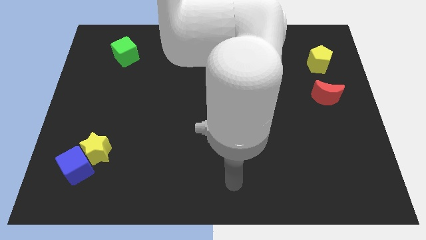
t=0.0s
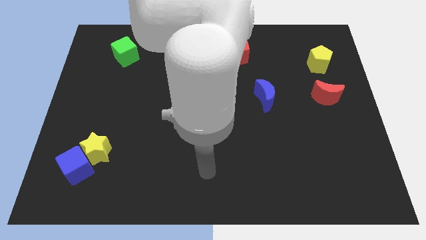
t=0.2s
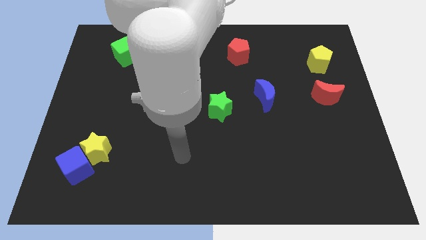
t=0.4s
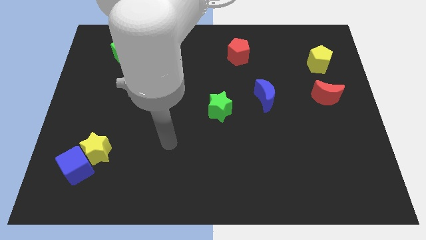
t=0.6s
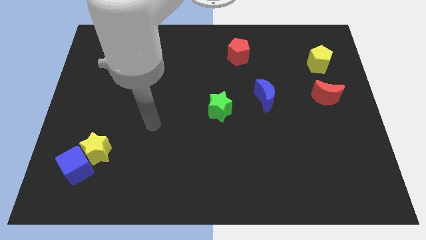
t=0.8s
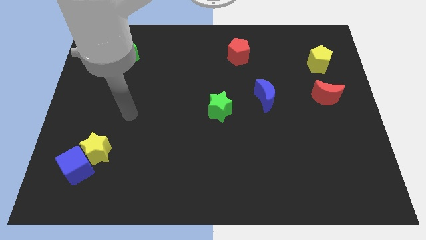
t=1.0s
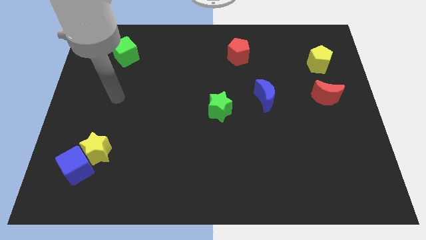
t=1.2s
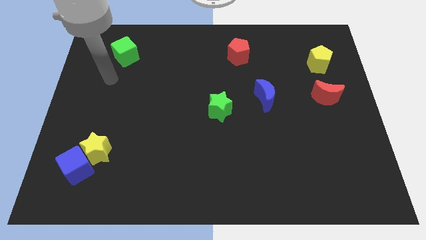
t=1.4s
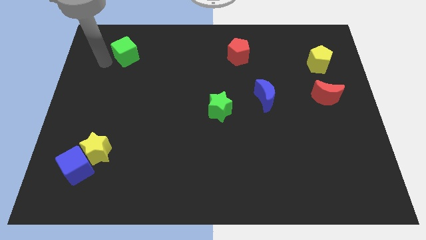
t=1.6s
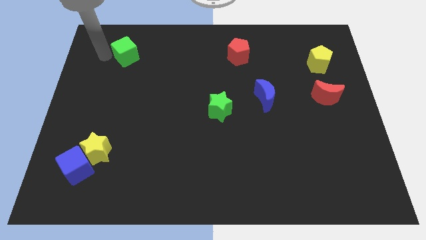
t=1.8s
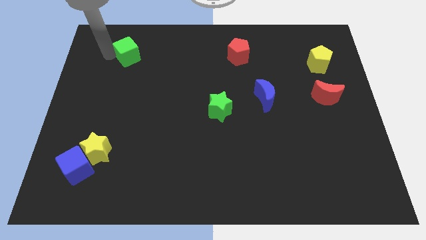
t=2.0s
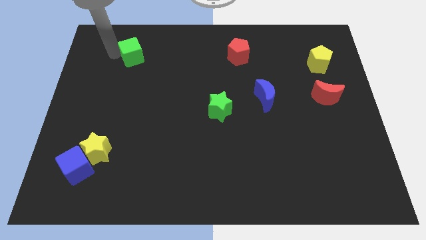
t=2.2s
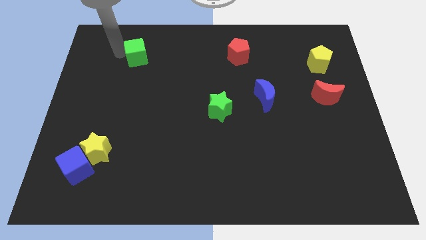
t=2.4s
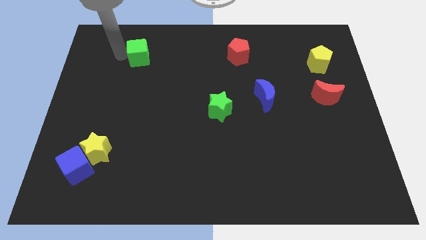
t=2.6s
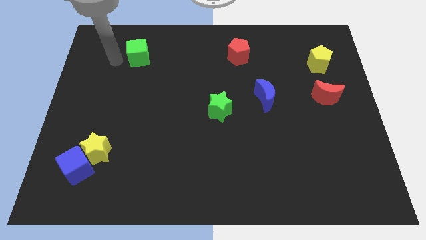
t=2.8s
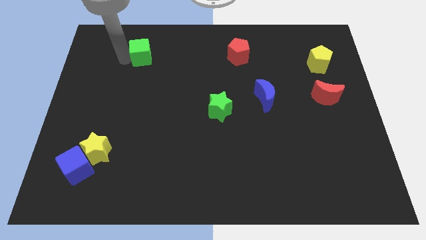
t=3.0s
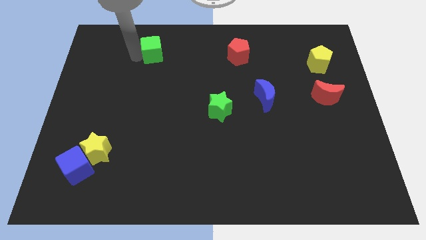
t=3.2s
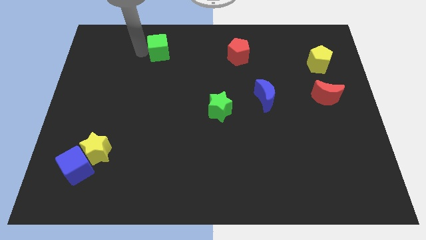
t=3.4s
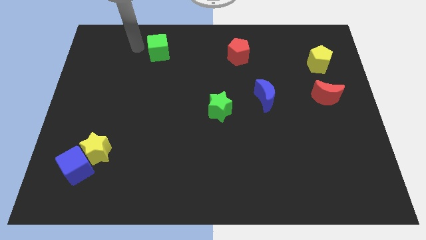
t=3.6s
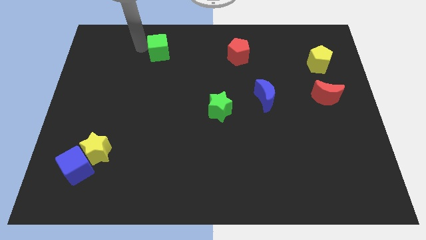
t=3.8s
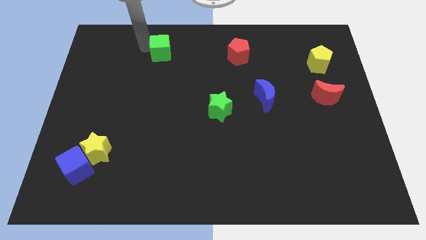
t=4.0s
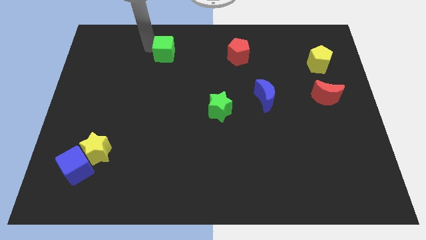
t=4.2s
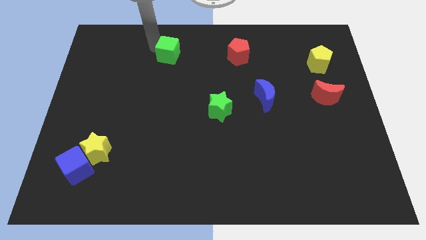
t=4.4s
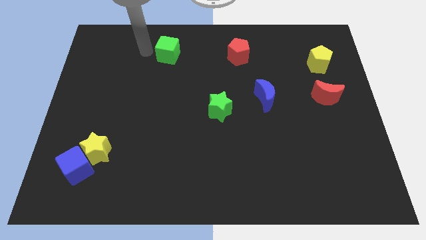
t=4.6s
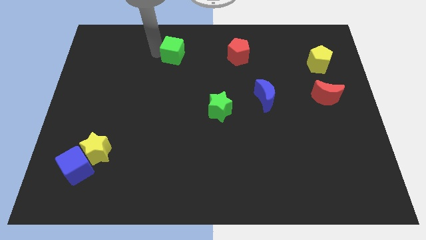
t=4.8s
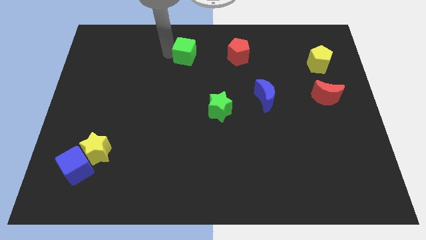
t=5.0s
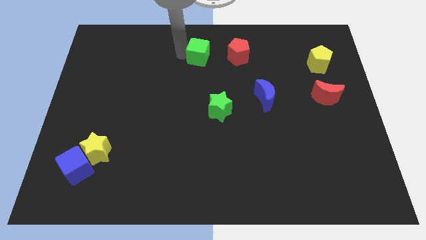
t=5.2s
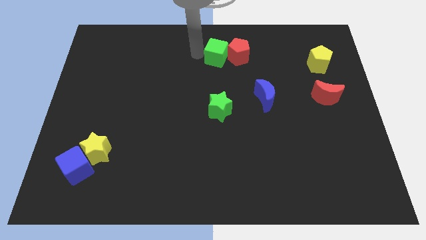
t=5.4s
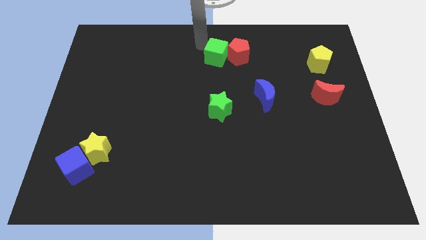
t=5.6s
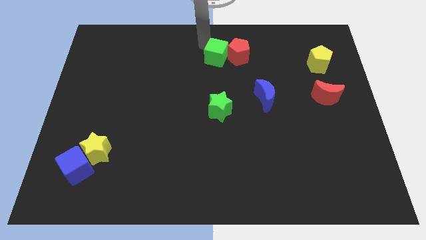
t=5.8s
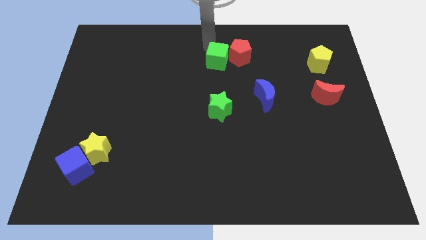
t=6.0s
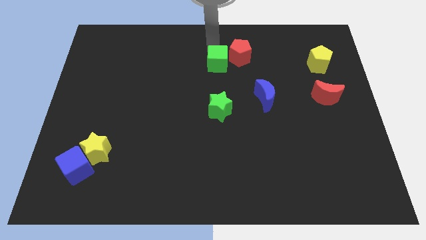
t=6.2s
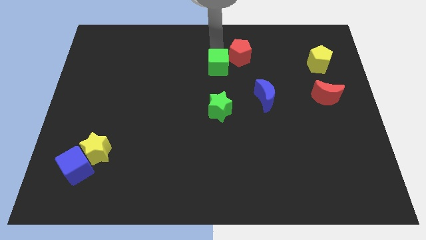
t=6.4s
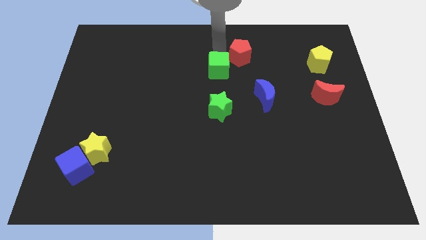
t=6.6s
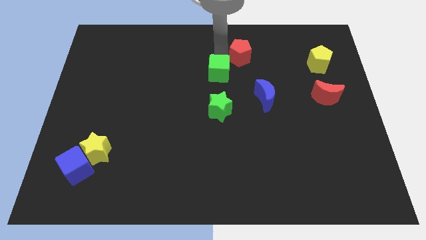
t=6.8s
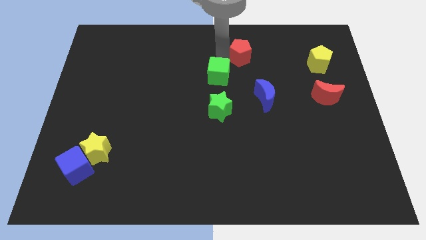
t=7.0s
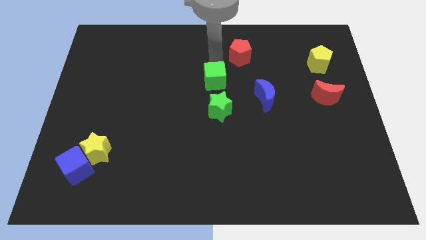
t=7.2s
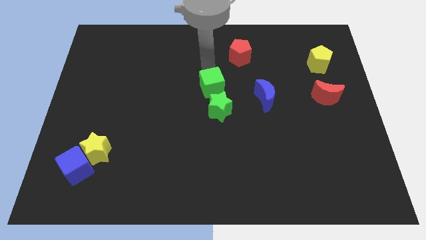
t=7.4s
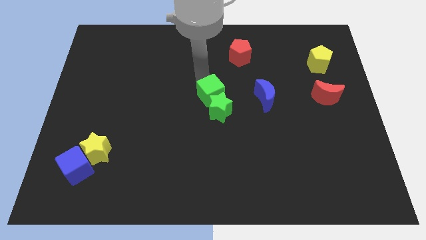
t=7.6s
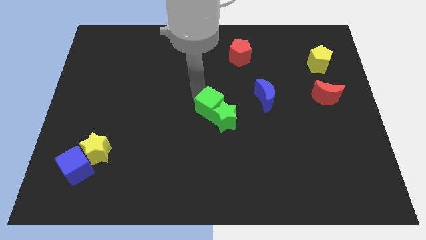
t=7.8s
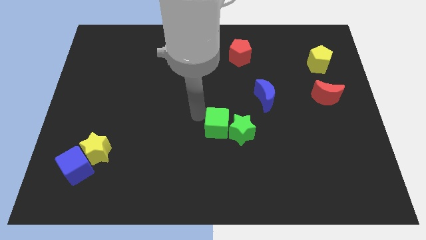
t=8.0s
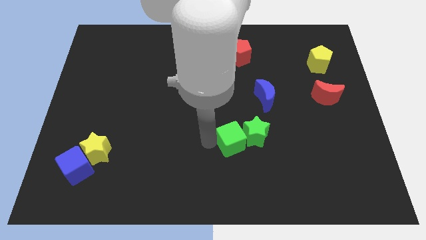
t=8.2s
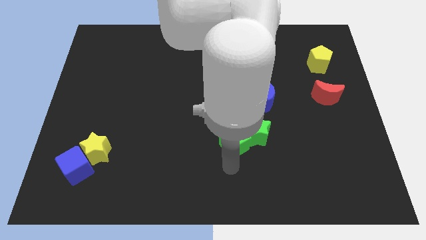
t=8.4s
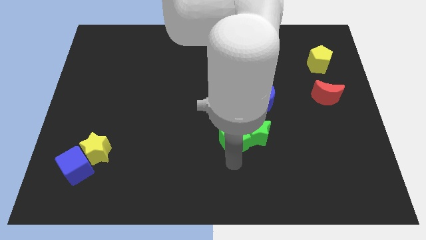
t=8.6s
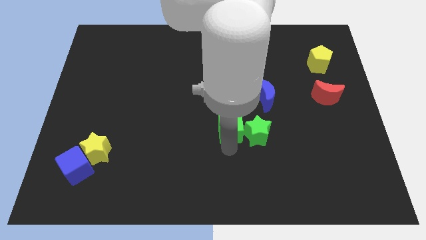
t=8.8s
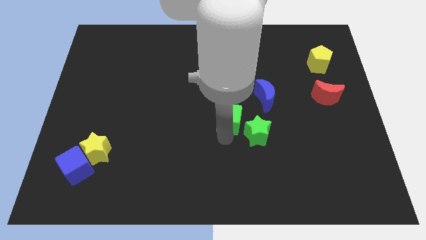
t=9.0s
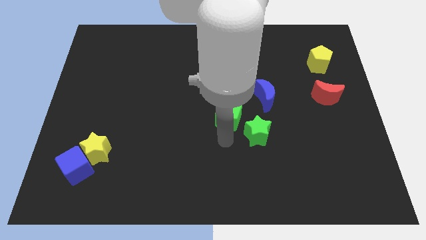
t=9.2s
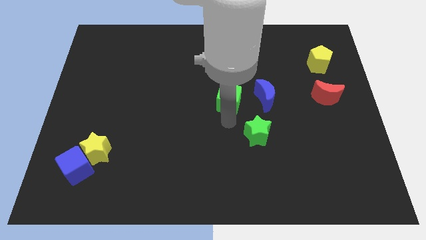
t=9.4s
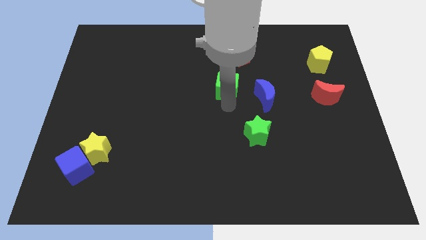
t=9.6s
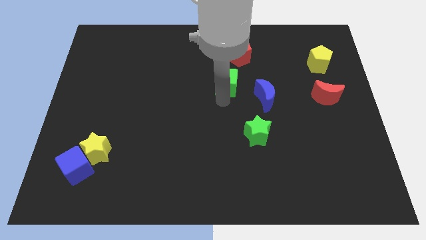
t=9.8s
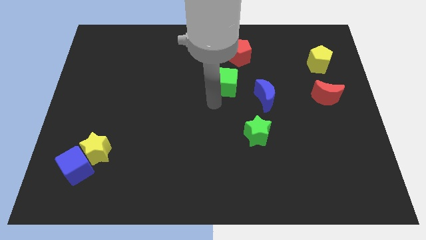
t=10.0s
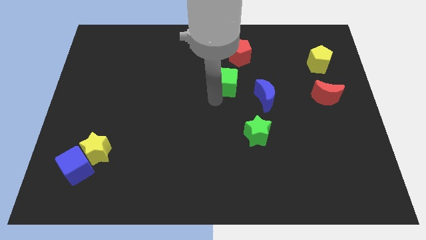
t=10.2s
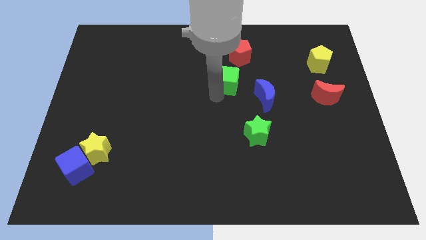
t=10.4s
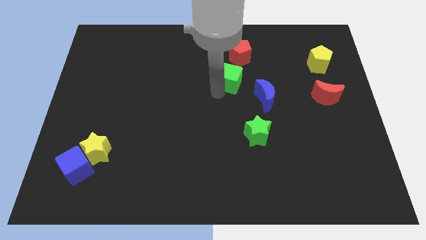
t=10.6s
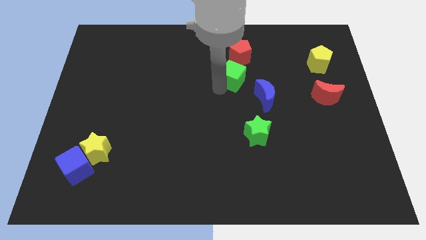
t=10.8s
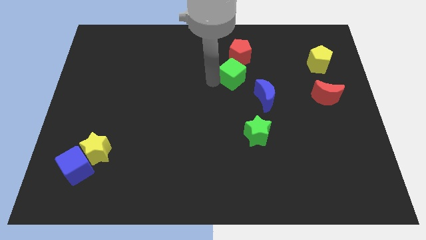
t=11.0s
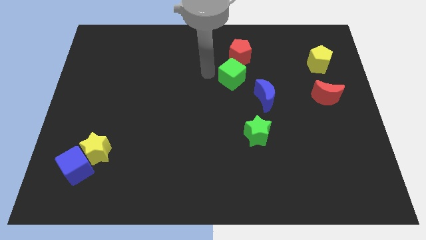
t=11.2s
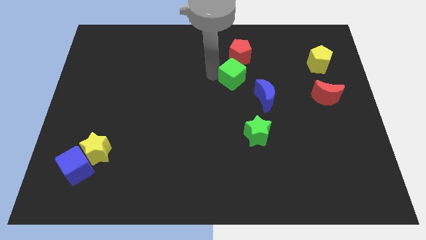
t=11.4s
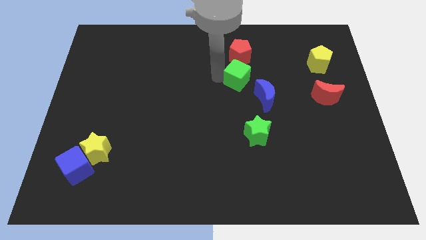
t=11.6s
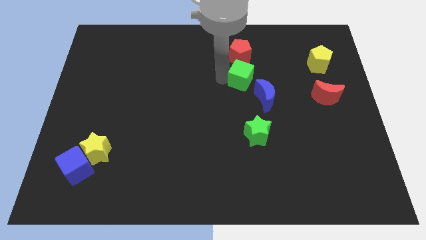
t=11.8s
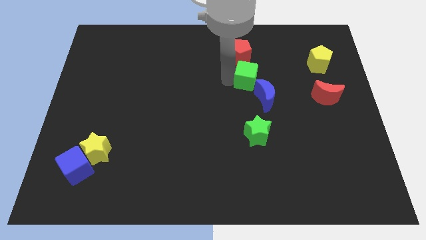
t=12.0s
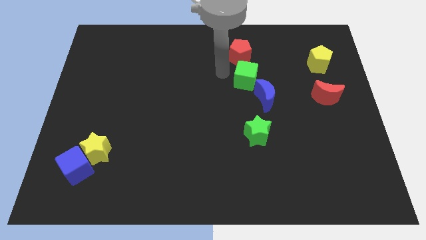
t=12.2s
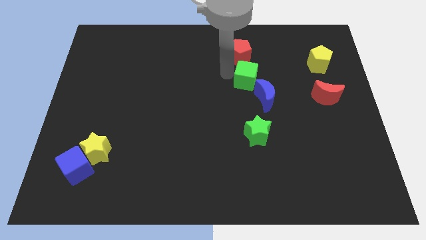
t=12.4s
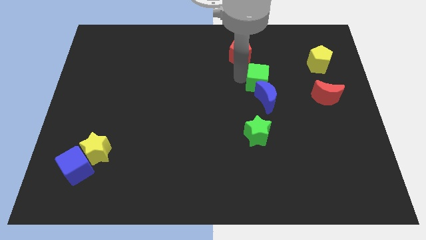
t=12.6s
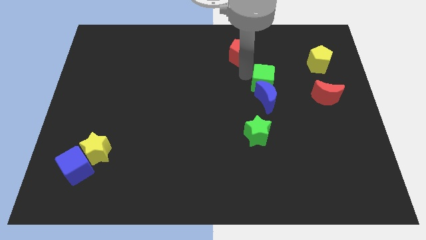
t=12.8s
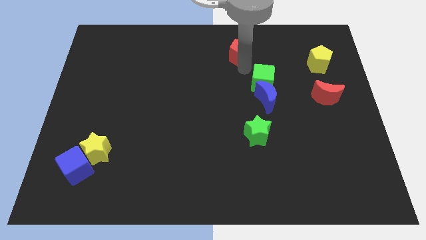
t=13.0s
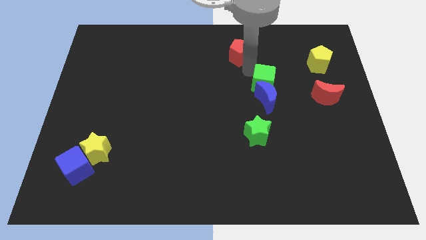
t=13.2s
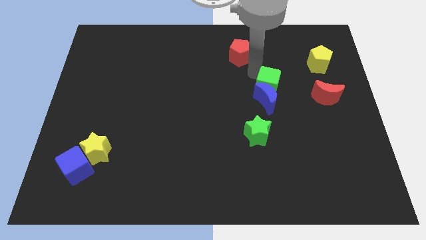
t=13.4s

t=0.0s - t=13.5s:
put the green cube just left of the red moon
